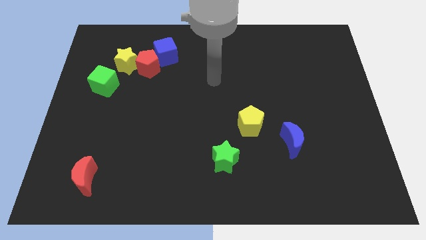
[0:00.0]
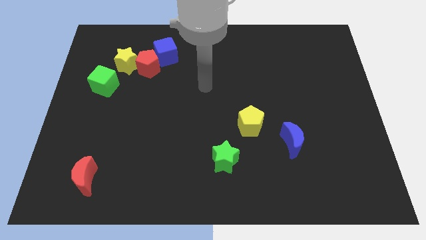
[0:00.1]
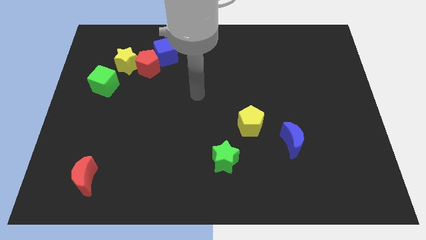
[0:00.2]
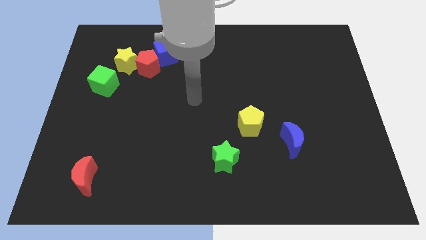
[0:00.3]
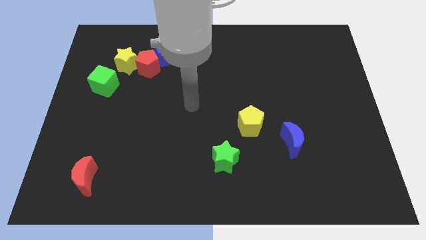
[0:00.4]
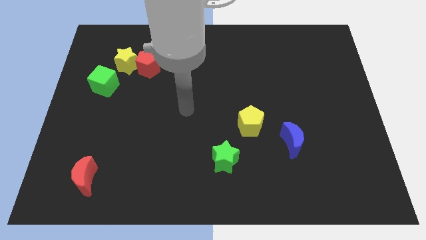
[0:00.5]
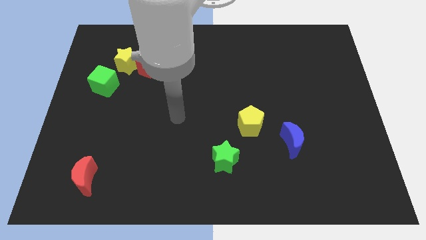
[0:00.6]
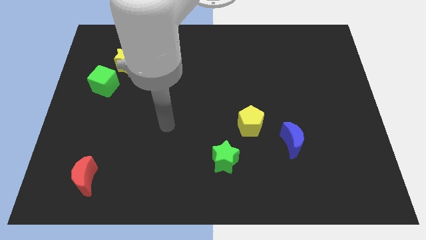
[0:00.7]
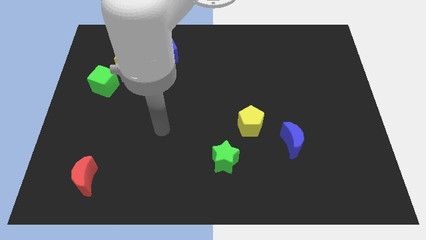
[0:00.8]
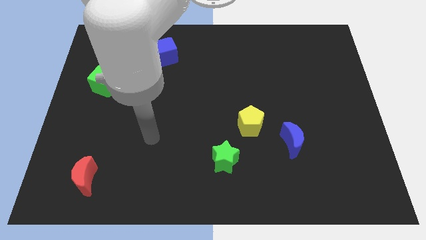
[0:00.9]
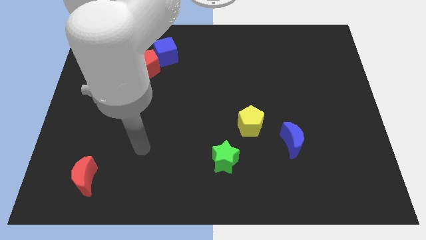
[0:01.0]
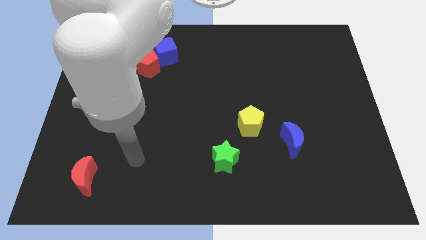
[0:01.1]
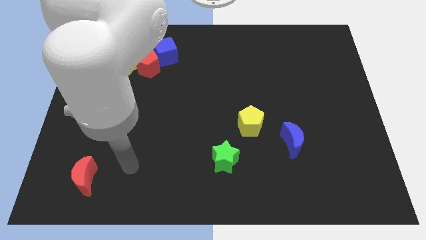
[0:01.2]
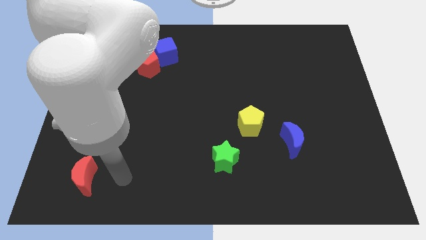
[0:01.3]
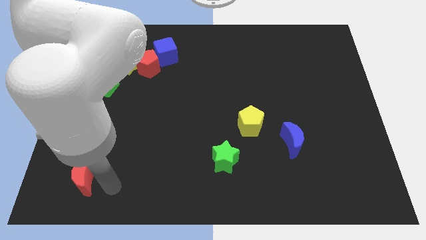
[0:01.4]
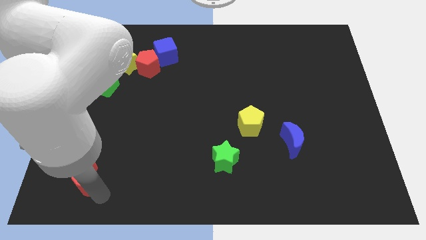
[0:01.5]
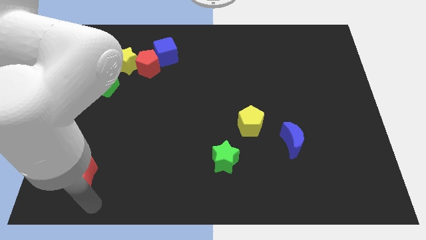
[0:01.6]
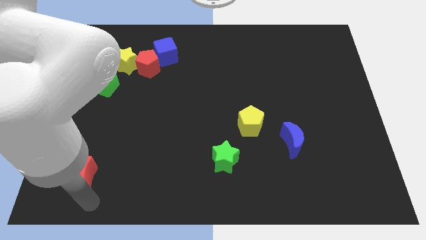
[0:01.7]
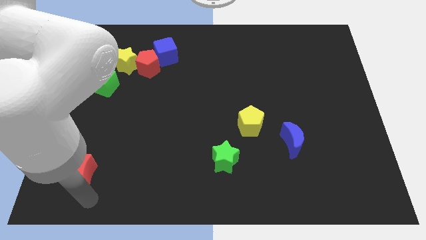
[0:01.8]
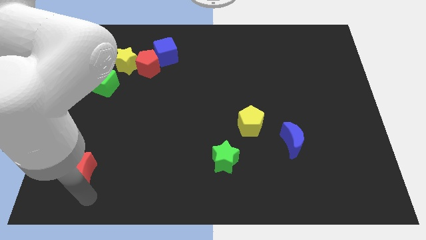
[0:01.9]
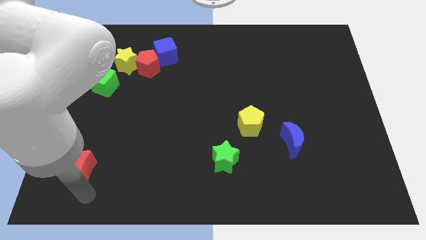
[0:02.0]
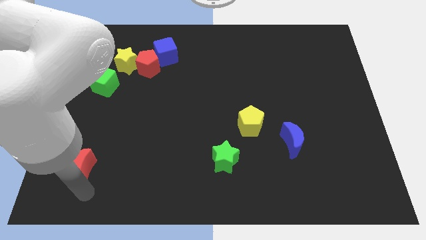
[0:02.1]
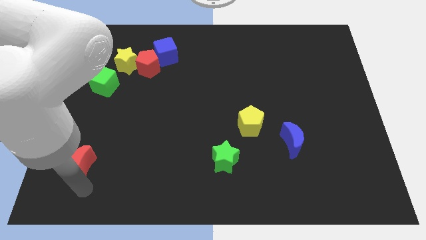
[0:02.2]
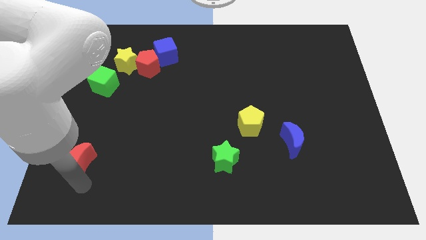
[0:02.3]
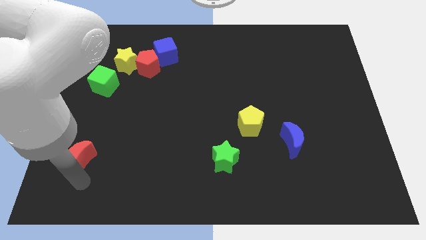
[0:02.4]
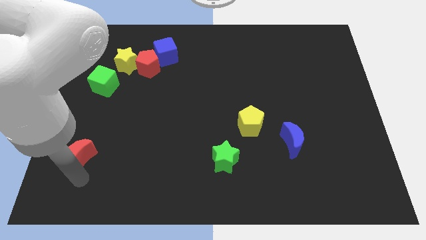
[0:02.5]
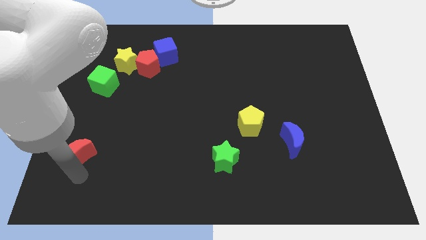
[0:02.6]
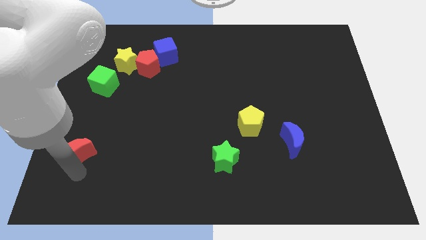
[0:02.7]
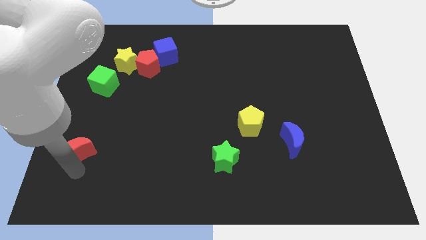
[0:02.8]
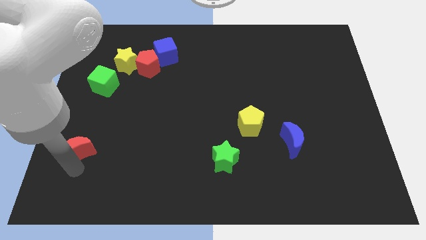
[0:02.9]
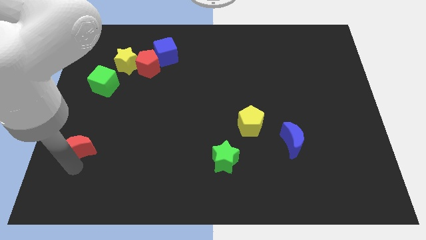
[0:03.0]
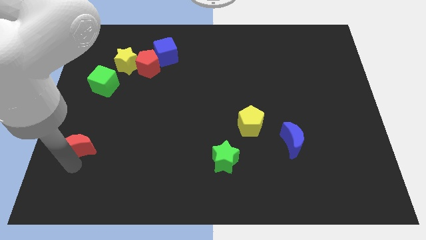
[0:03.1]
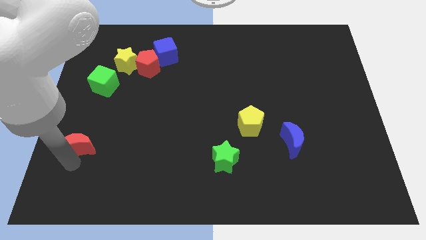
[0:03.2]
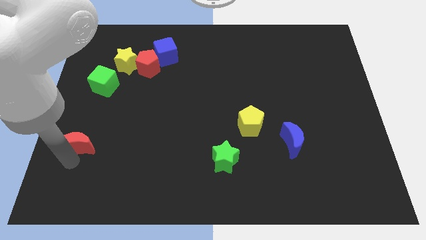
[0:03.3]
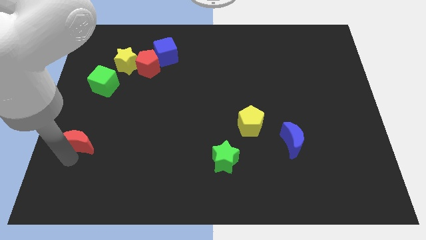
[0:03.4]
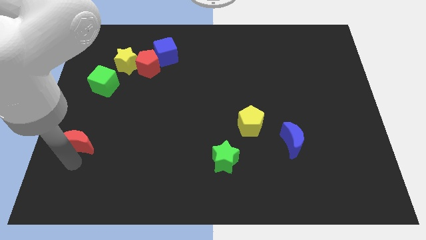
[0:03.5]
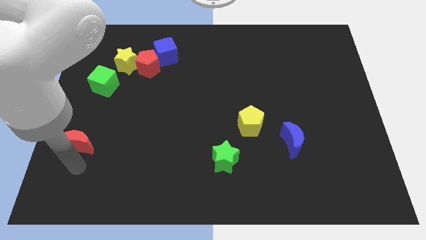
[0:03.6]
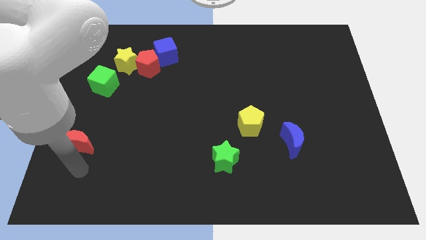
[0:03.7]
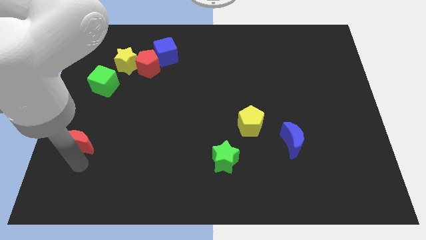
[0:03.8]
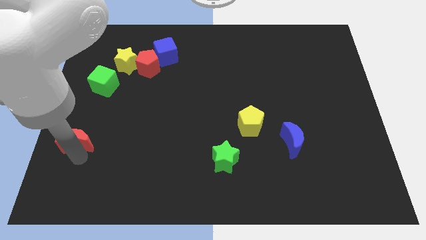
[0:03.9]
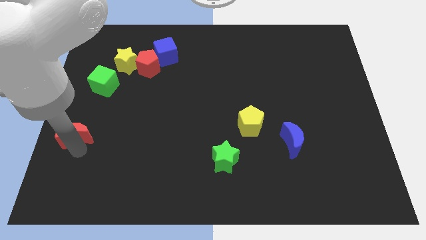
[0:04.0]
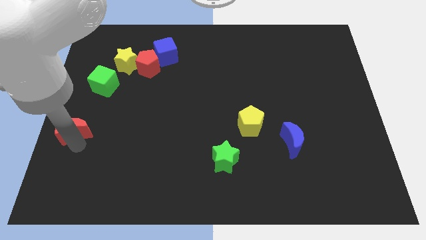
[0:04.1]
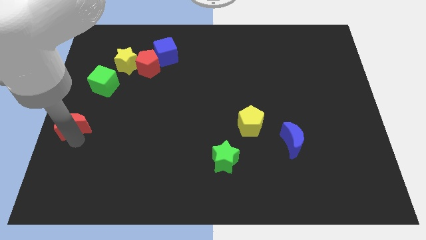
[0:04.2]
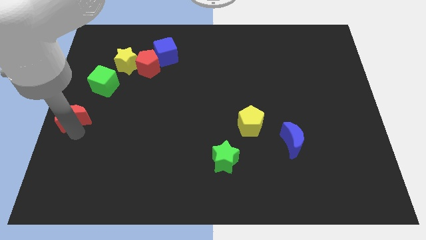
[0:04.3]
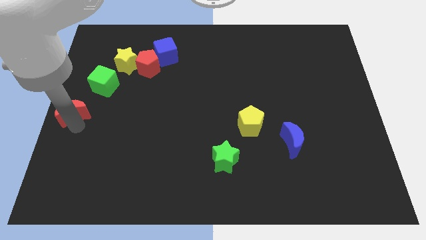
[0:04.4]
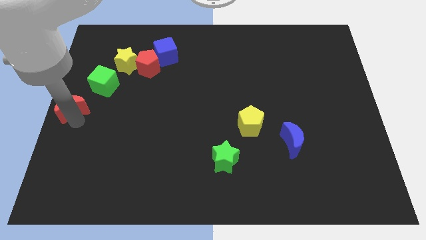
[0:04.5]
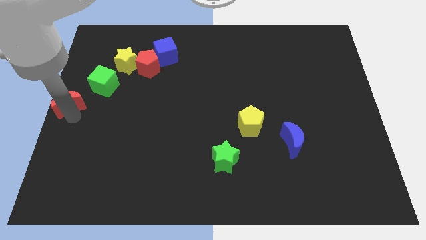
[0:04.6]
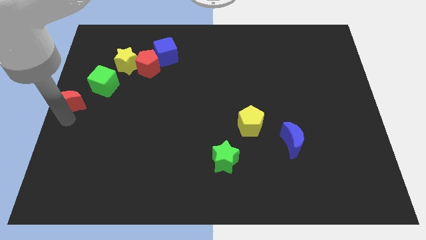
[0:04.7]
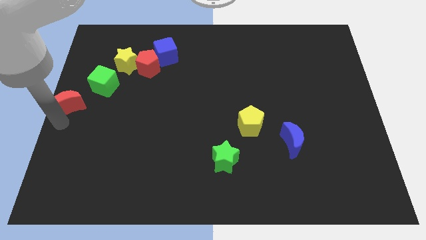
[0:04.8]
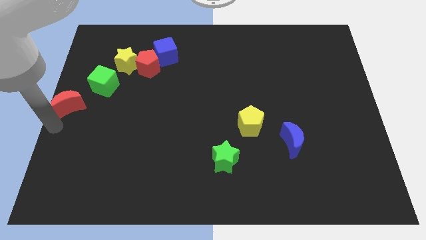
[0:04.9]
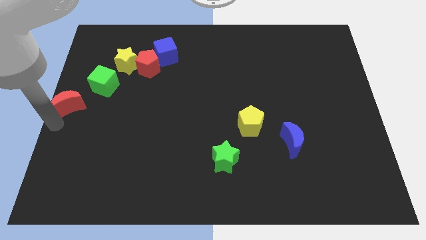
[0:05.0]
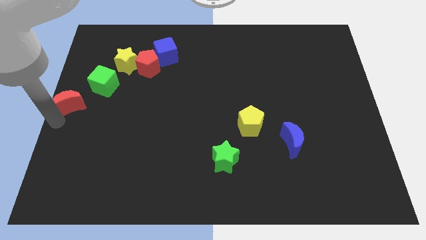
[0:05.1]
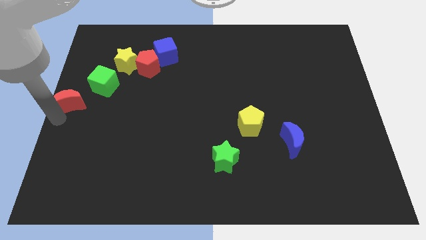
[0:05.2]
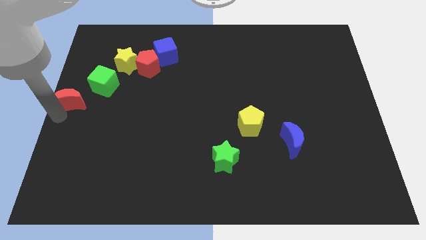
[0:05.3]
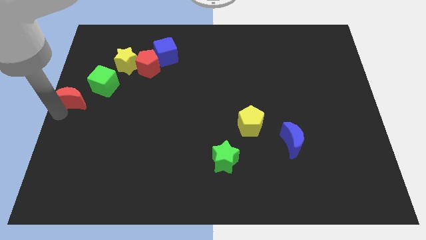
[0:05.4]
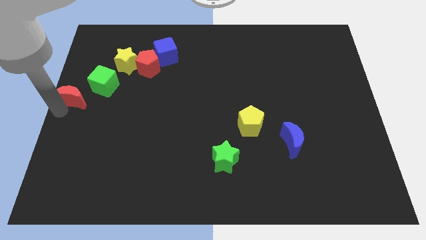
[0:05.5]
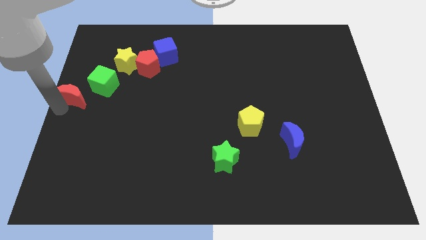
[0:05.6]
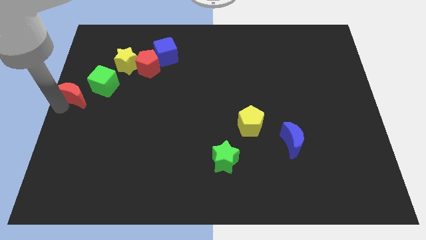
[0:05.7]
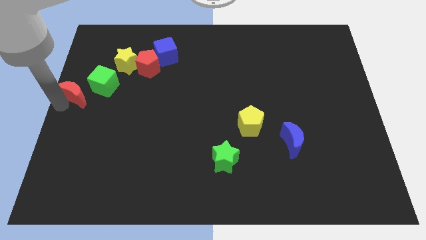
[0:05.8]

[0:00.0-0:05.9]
push the red moon up

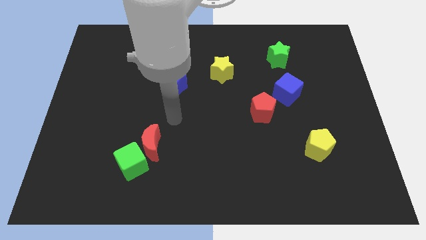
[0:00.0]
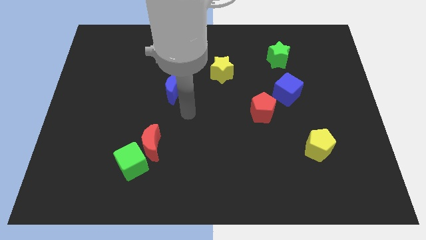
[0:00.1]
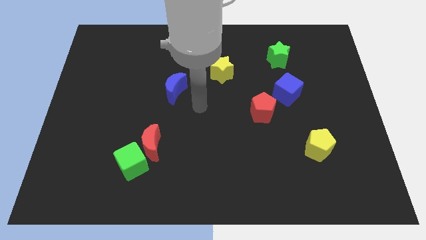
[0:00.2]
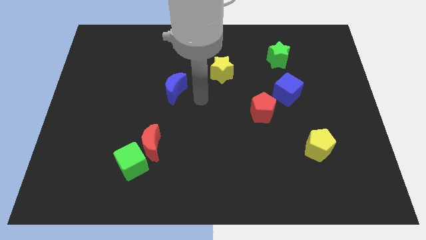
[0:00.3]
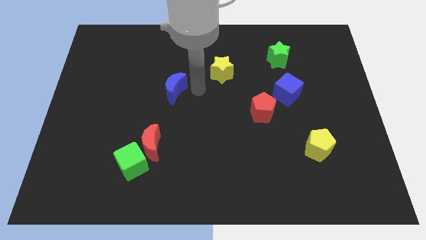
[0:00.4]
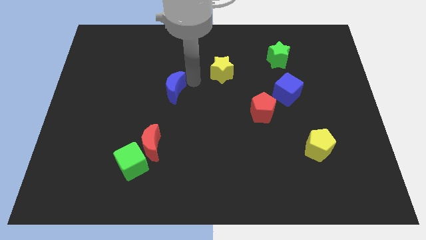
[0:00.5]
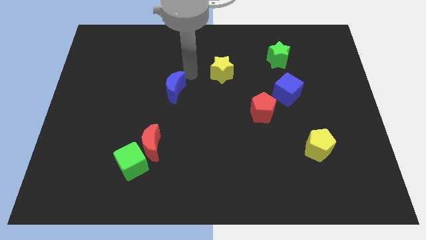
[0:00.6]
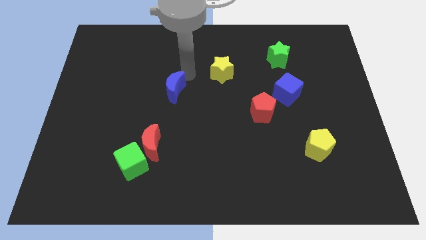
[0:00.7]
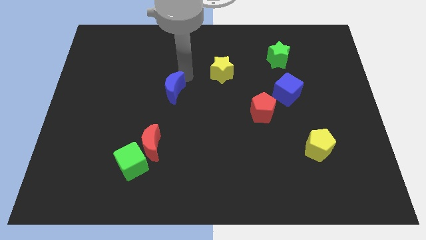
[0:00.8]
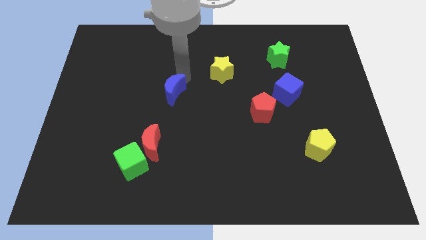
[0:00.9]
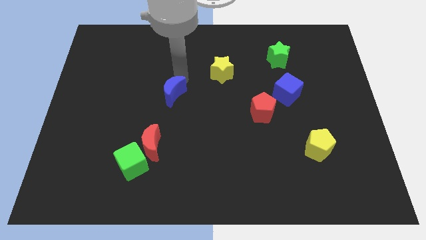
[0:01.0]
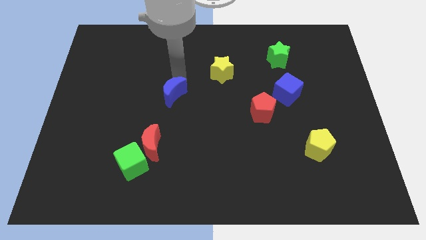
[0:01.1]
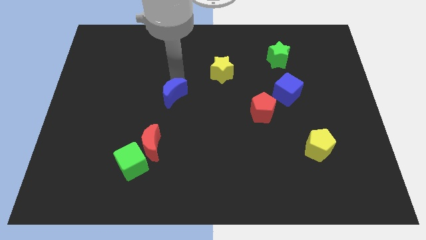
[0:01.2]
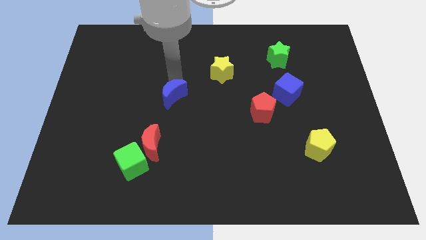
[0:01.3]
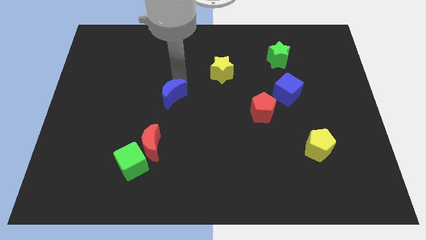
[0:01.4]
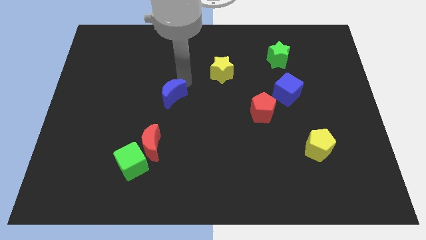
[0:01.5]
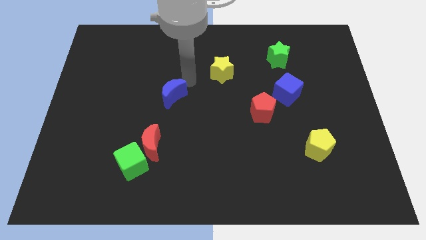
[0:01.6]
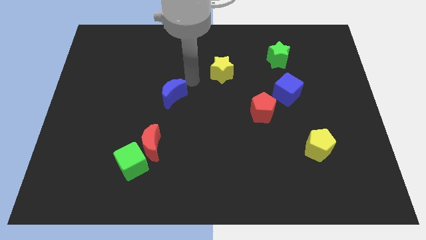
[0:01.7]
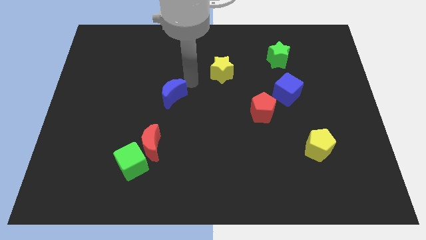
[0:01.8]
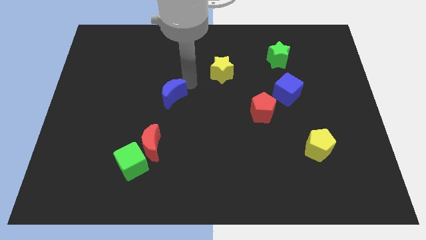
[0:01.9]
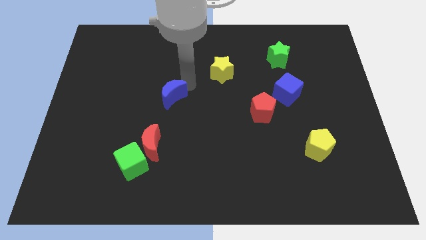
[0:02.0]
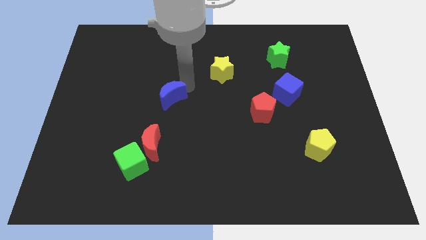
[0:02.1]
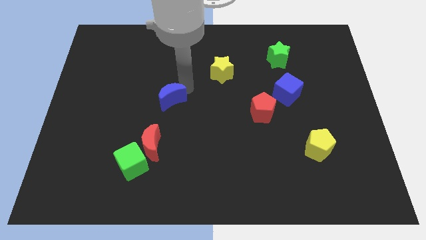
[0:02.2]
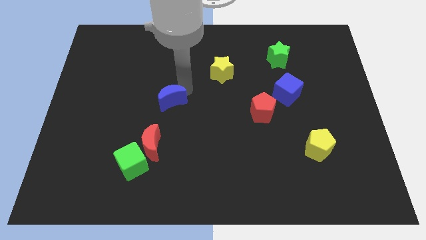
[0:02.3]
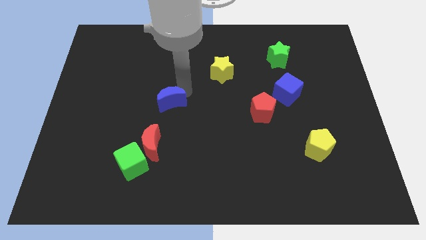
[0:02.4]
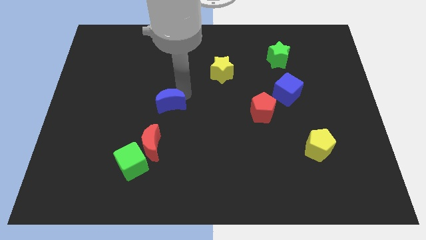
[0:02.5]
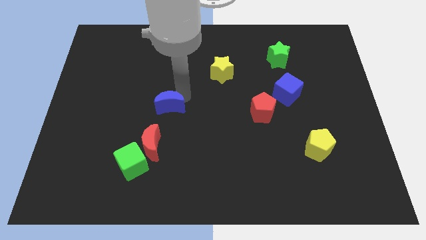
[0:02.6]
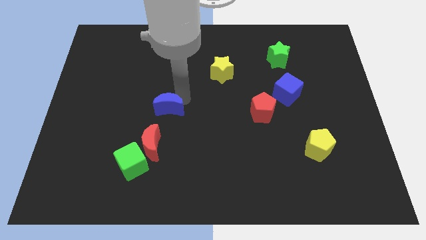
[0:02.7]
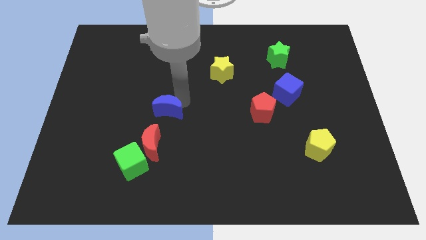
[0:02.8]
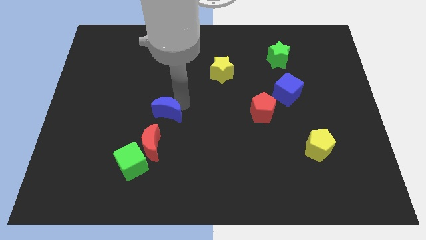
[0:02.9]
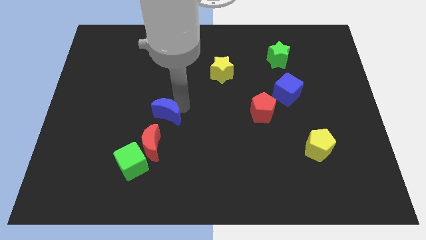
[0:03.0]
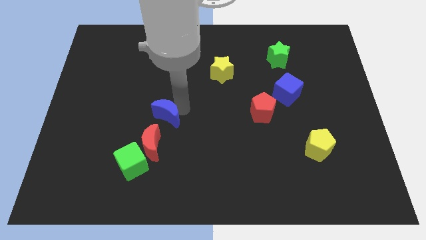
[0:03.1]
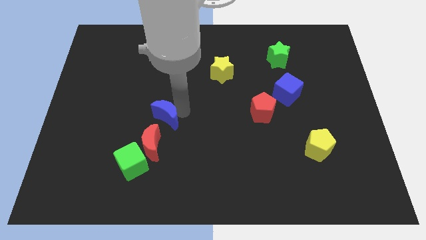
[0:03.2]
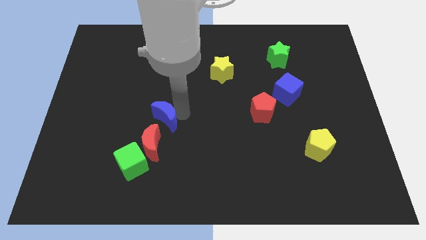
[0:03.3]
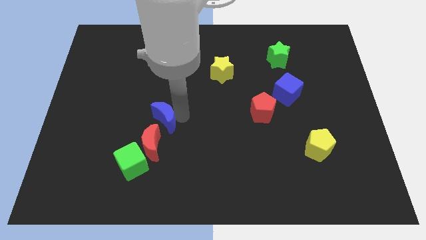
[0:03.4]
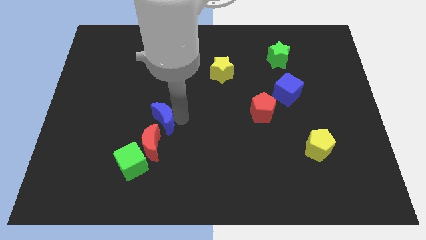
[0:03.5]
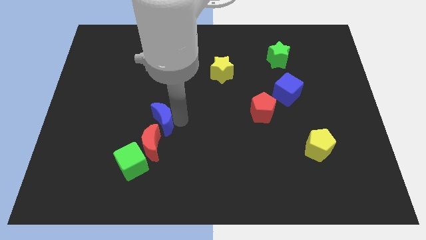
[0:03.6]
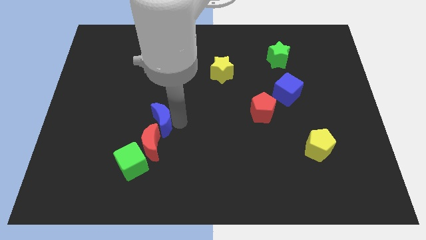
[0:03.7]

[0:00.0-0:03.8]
slightly move the blue moon downwards and left diagonally
